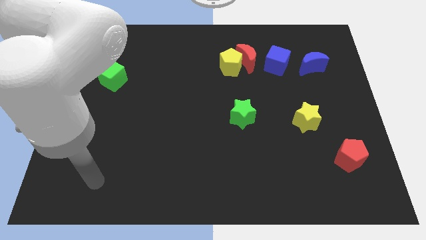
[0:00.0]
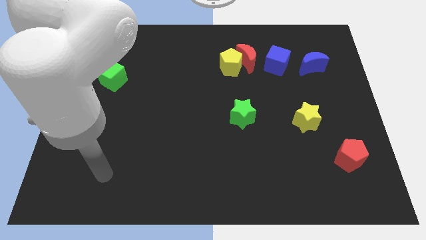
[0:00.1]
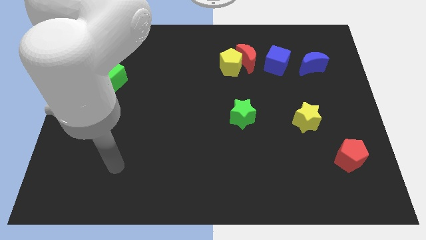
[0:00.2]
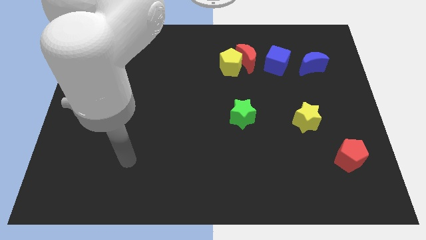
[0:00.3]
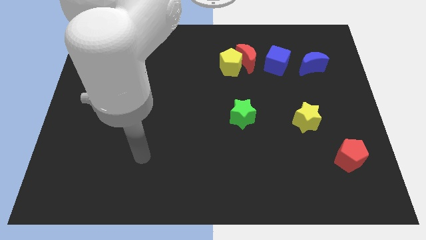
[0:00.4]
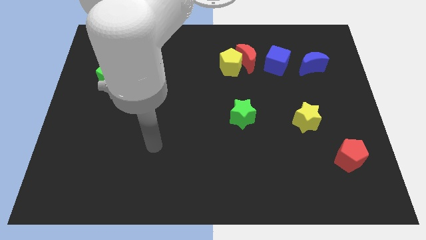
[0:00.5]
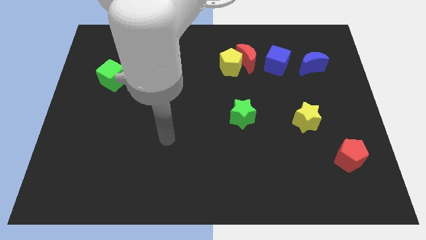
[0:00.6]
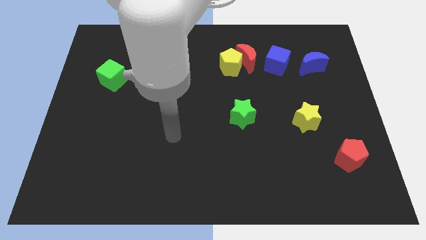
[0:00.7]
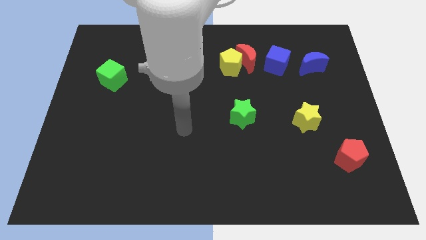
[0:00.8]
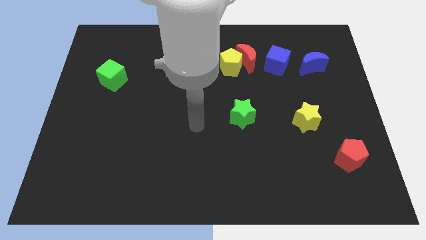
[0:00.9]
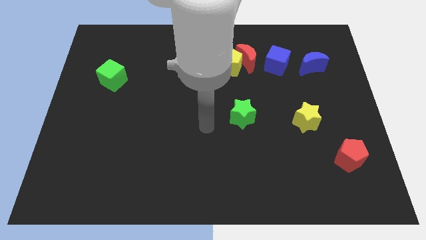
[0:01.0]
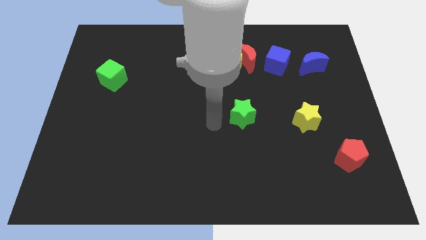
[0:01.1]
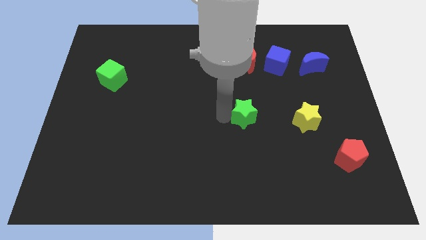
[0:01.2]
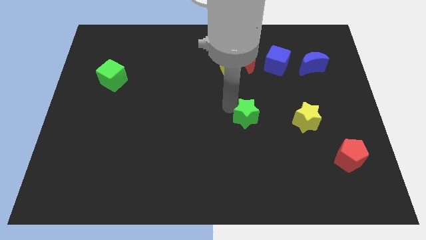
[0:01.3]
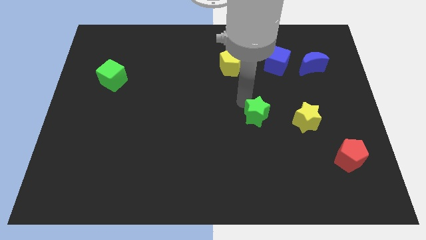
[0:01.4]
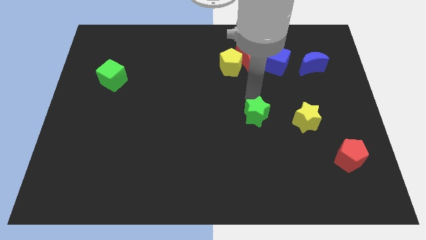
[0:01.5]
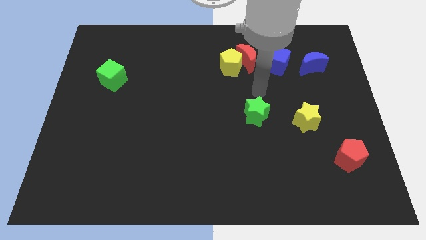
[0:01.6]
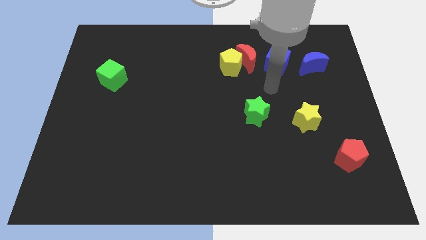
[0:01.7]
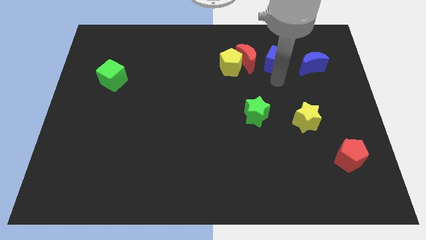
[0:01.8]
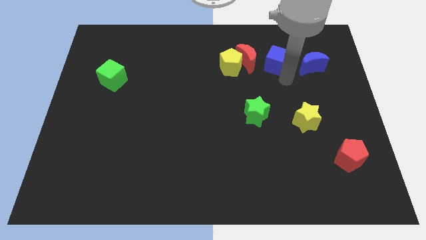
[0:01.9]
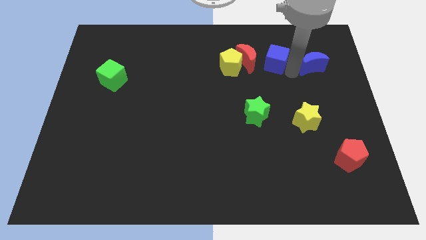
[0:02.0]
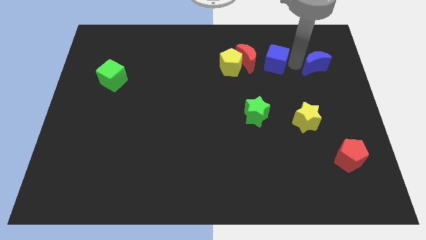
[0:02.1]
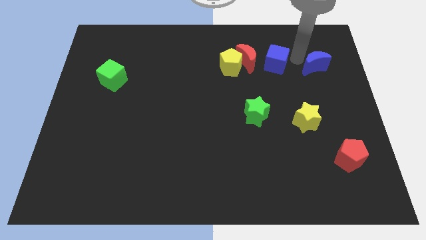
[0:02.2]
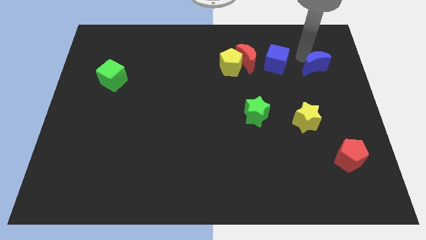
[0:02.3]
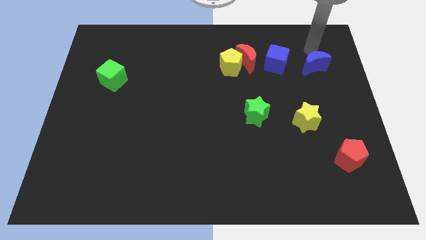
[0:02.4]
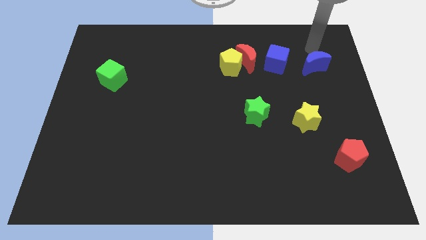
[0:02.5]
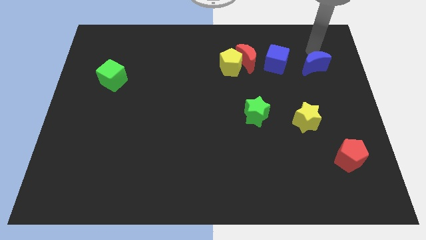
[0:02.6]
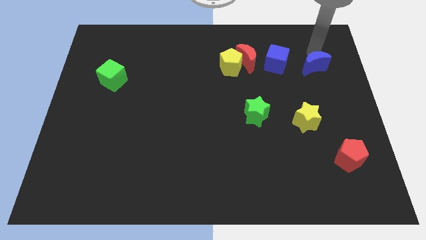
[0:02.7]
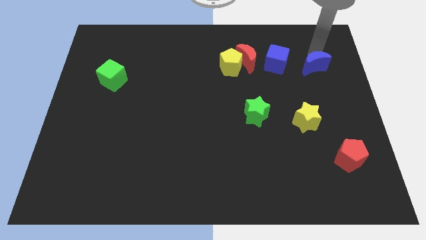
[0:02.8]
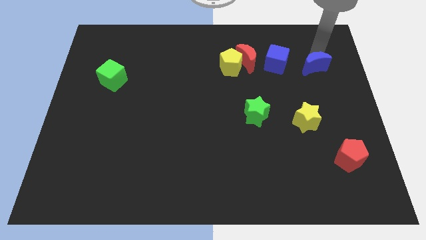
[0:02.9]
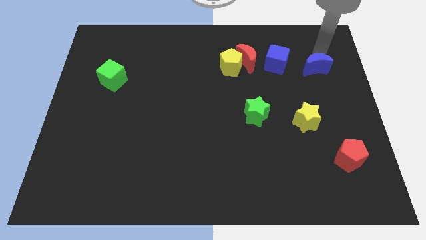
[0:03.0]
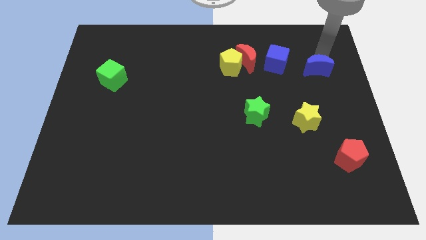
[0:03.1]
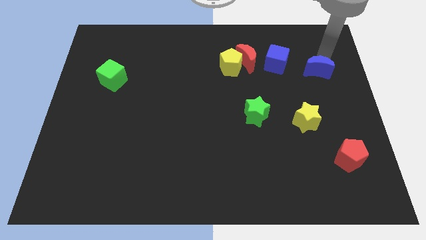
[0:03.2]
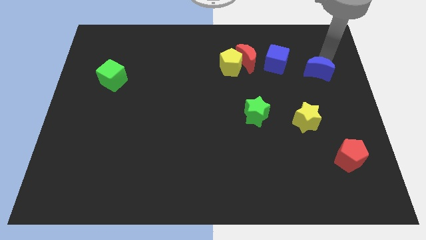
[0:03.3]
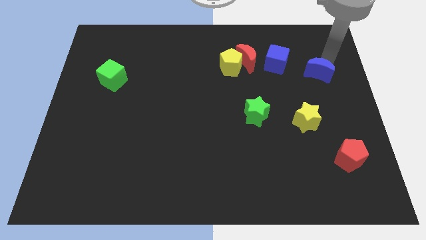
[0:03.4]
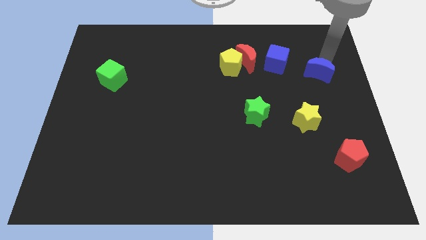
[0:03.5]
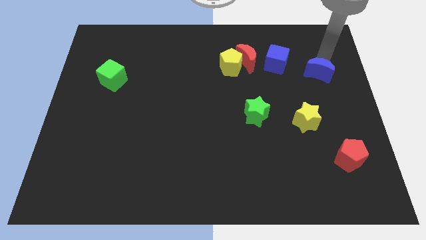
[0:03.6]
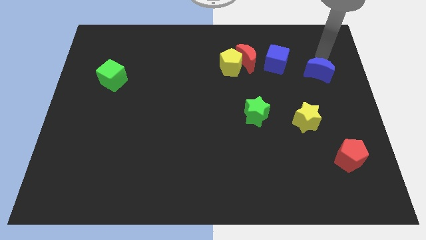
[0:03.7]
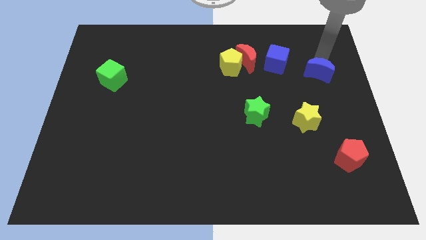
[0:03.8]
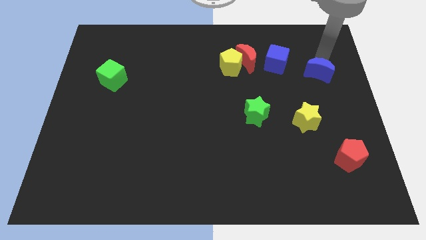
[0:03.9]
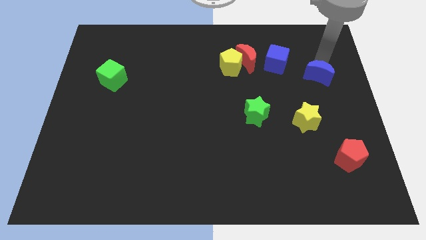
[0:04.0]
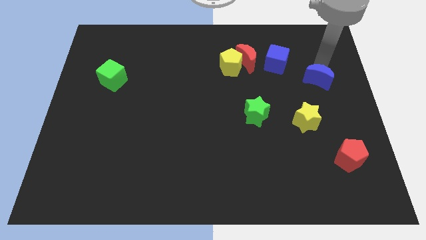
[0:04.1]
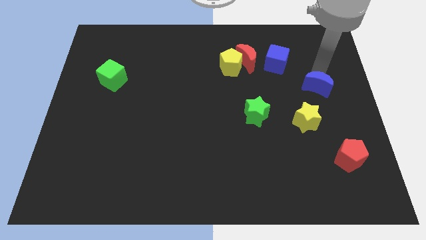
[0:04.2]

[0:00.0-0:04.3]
push the blue moon a bit downwards

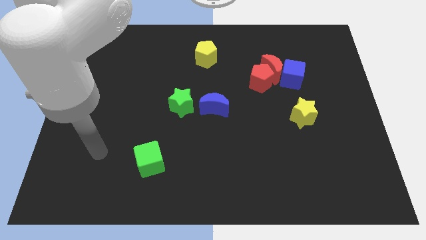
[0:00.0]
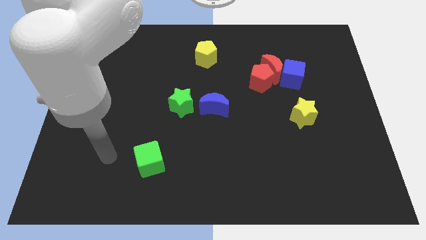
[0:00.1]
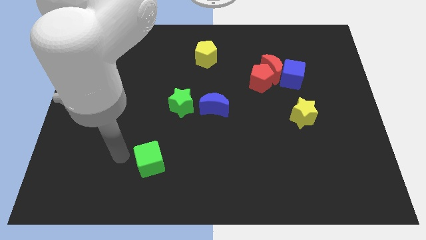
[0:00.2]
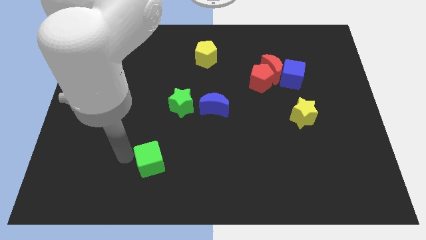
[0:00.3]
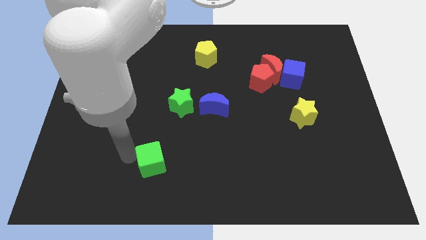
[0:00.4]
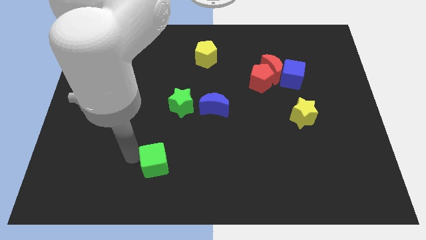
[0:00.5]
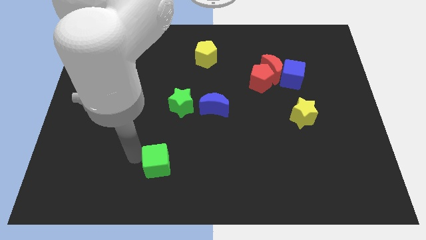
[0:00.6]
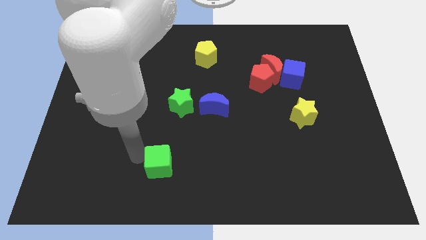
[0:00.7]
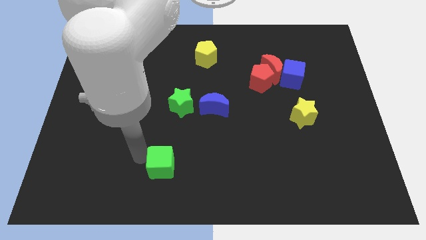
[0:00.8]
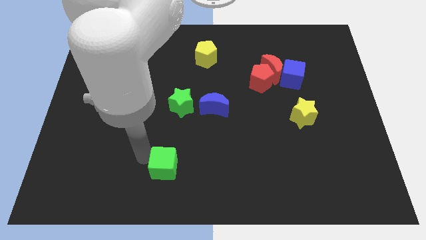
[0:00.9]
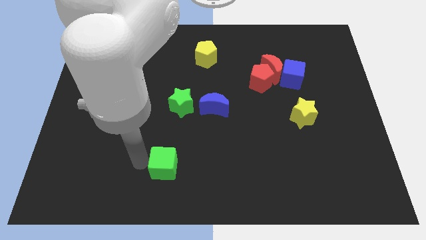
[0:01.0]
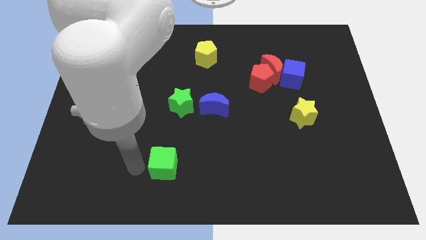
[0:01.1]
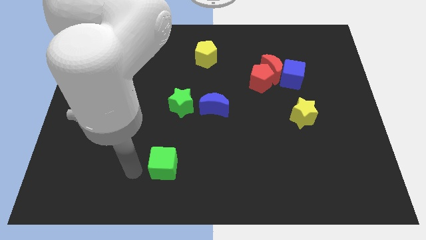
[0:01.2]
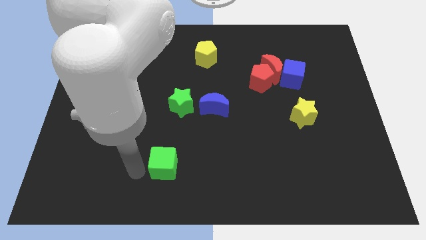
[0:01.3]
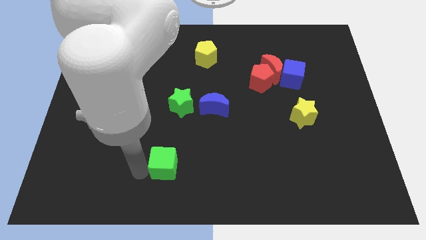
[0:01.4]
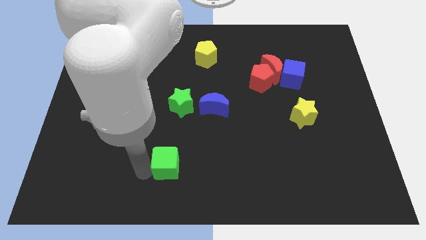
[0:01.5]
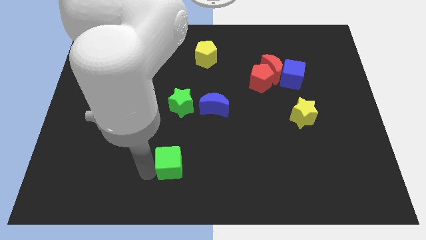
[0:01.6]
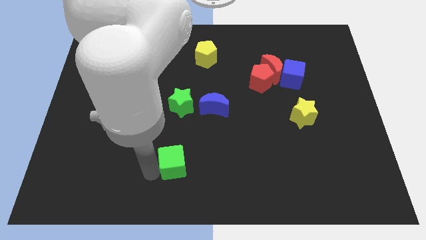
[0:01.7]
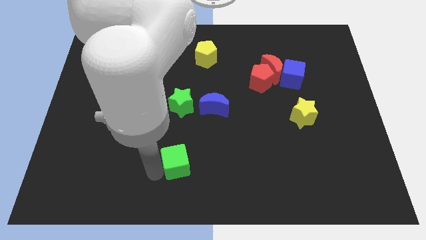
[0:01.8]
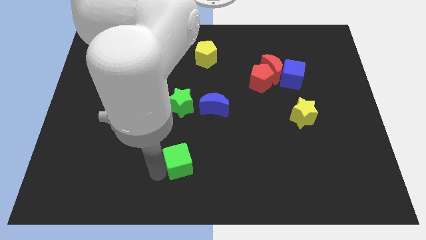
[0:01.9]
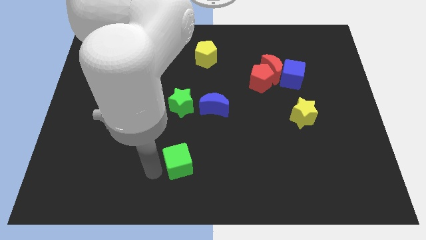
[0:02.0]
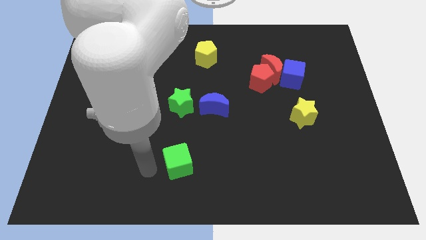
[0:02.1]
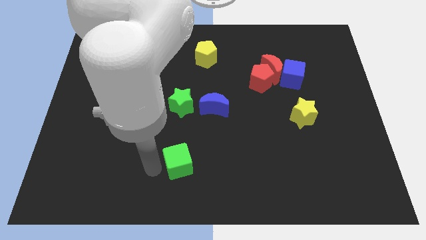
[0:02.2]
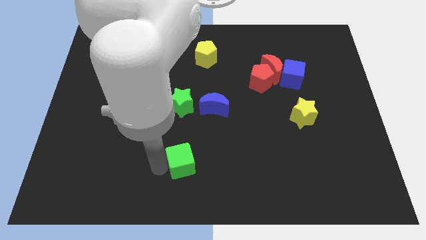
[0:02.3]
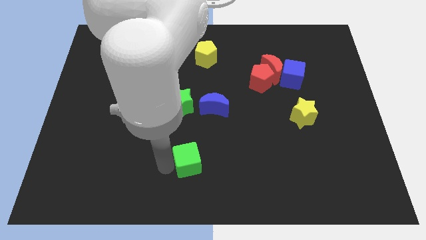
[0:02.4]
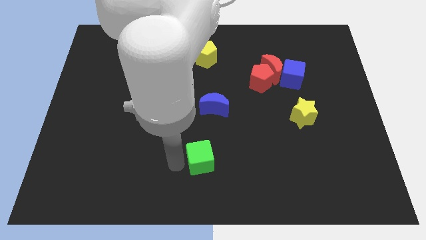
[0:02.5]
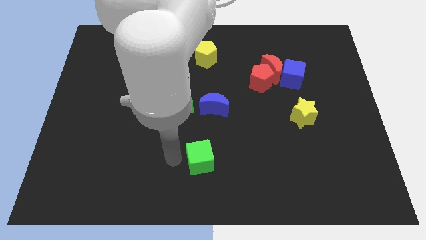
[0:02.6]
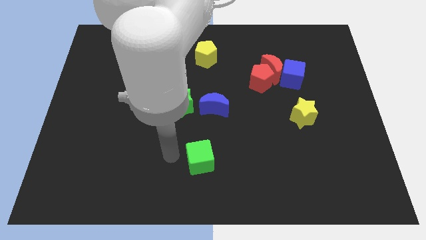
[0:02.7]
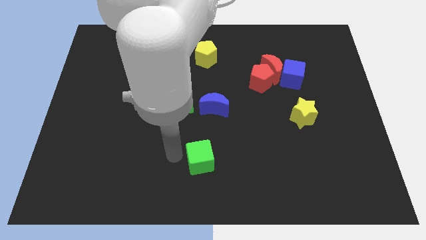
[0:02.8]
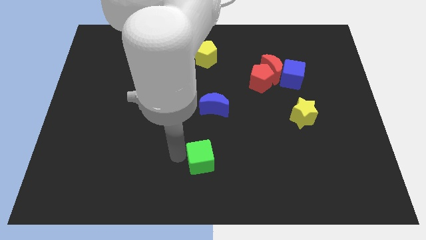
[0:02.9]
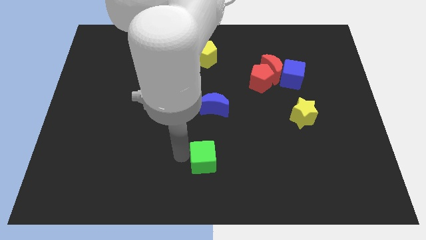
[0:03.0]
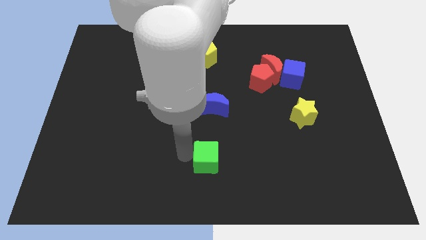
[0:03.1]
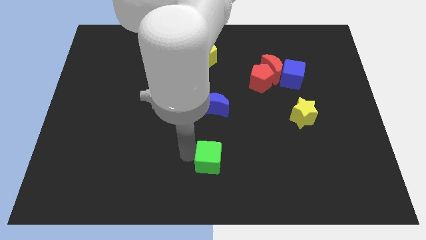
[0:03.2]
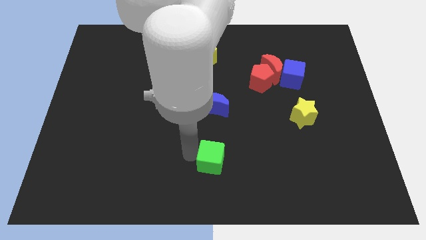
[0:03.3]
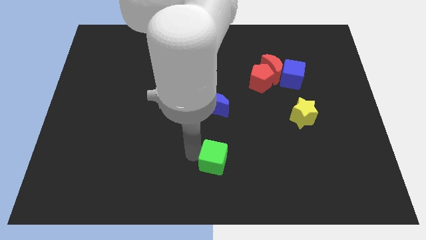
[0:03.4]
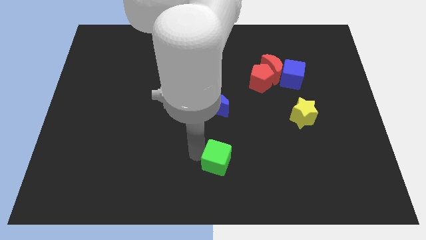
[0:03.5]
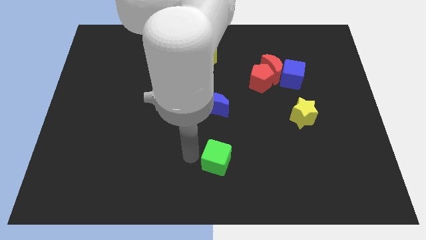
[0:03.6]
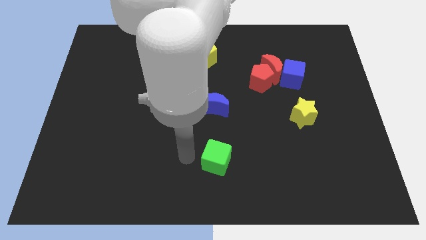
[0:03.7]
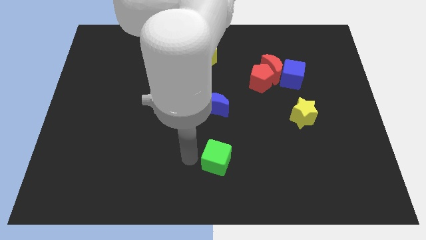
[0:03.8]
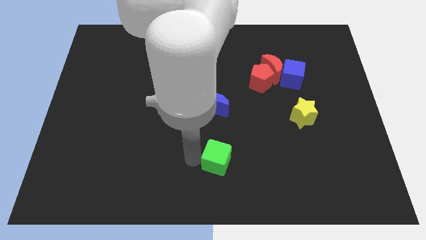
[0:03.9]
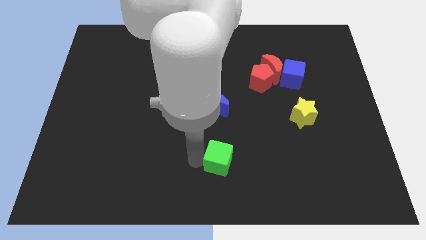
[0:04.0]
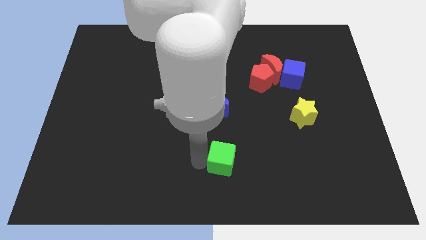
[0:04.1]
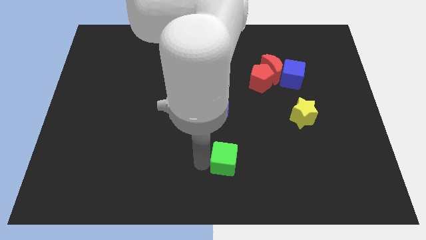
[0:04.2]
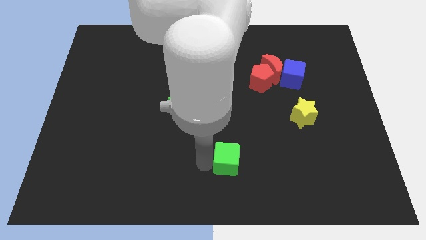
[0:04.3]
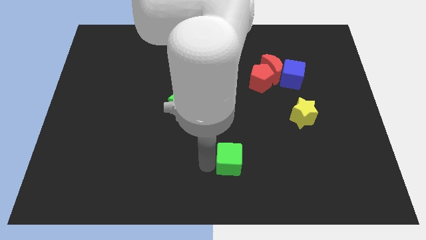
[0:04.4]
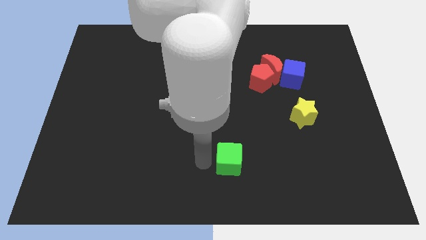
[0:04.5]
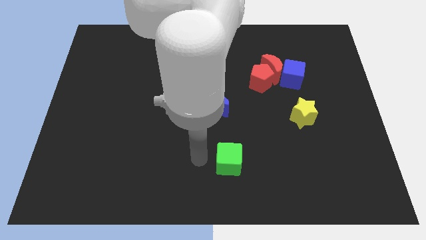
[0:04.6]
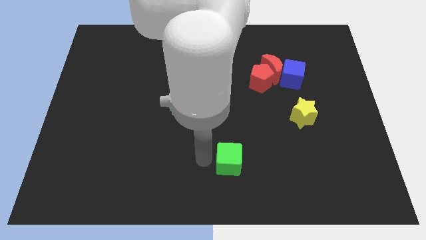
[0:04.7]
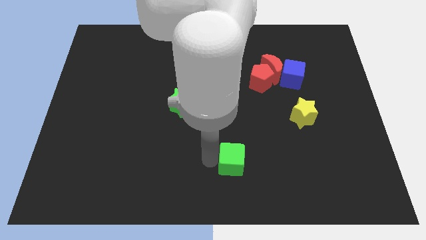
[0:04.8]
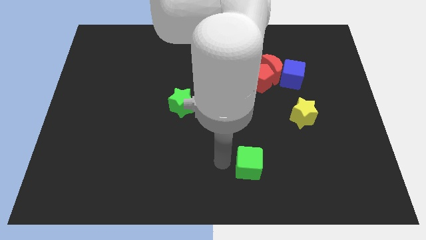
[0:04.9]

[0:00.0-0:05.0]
push the green cube to the right
